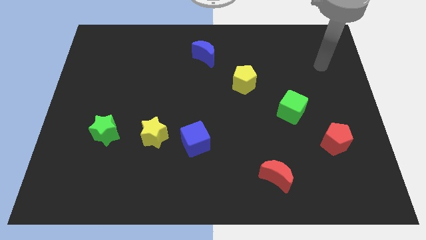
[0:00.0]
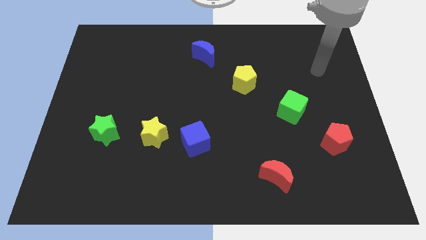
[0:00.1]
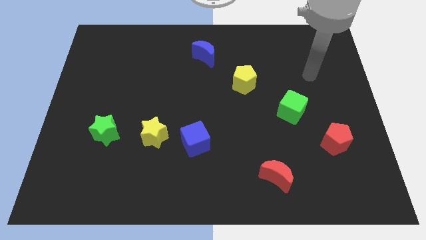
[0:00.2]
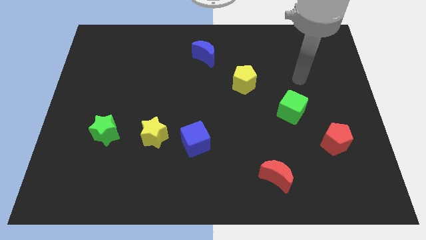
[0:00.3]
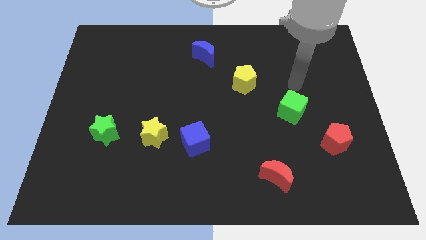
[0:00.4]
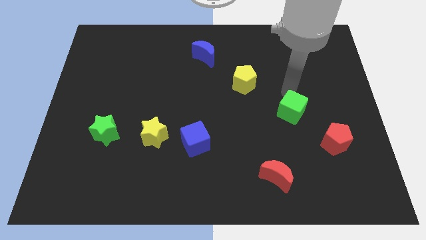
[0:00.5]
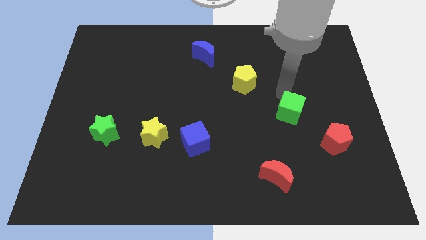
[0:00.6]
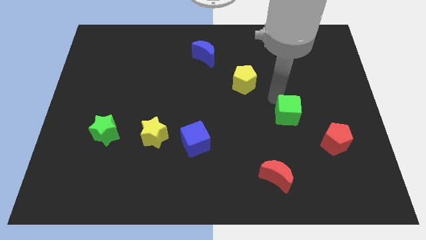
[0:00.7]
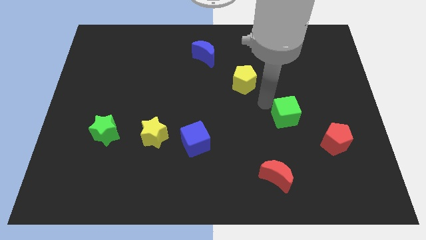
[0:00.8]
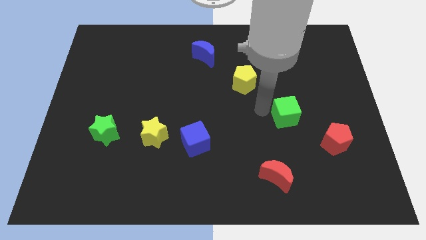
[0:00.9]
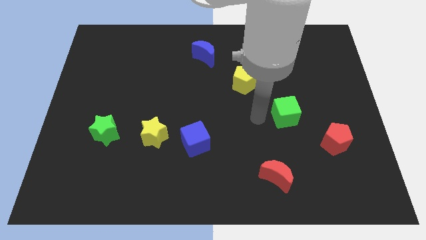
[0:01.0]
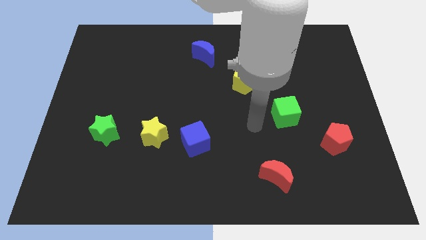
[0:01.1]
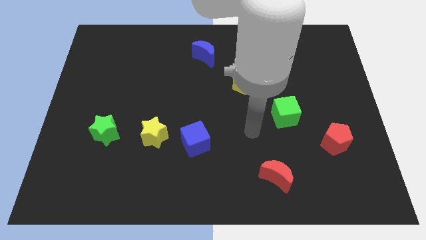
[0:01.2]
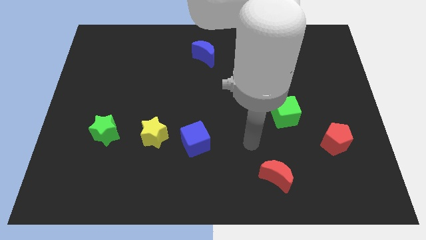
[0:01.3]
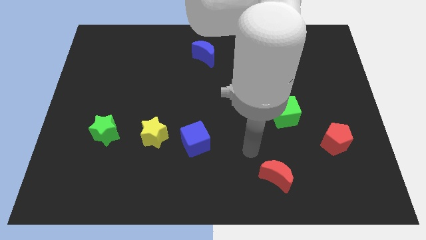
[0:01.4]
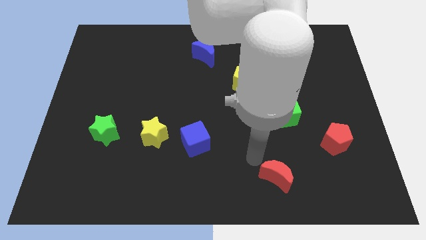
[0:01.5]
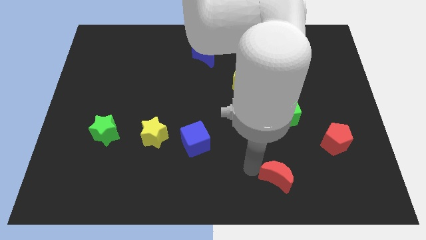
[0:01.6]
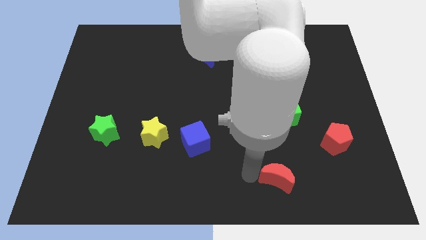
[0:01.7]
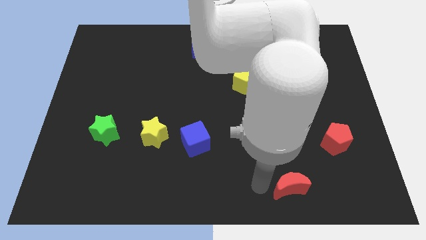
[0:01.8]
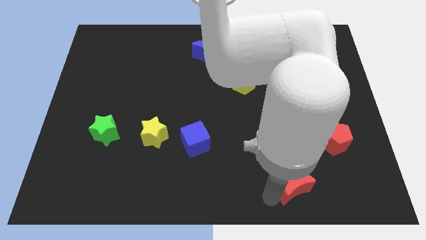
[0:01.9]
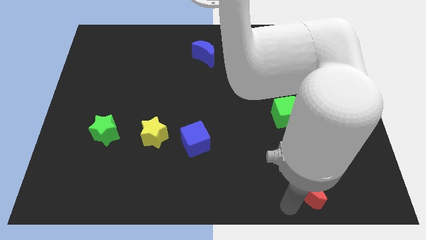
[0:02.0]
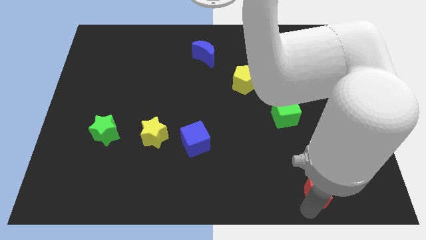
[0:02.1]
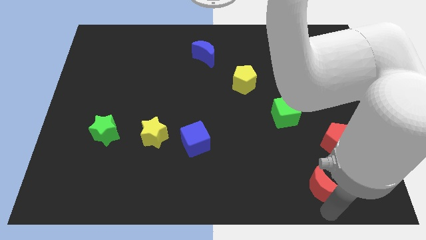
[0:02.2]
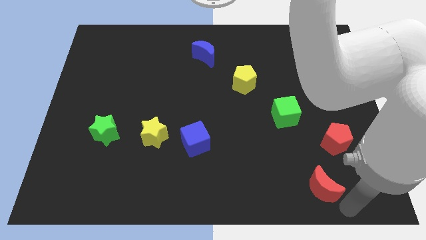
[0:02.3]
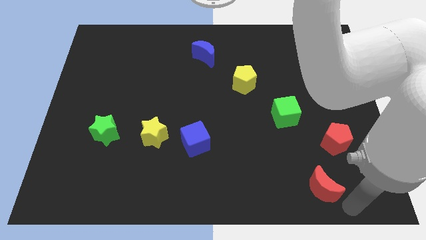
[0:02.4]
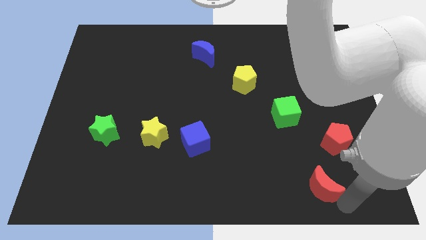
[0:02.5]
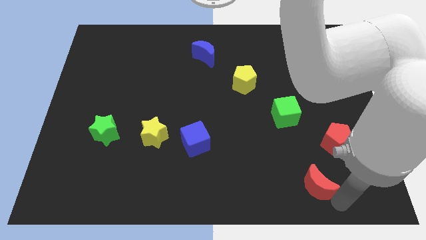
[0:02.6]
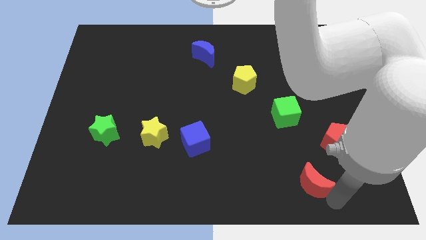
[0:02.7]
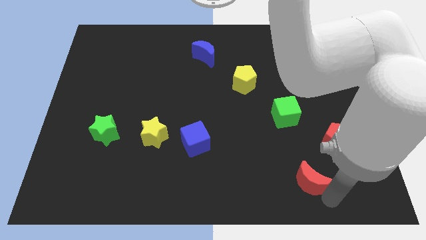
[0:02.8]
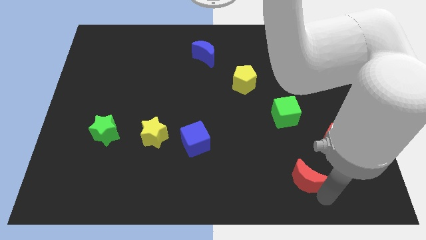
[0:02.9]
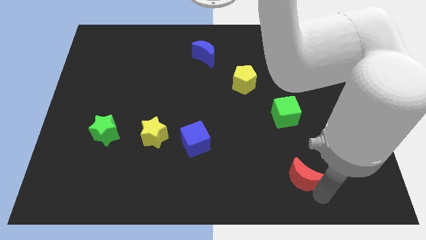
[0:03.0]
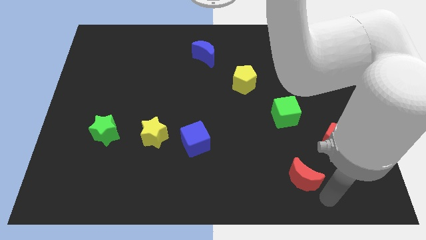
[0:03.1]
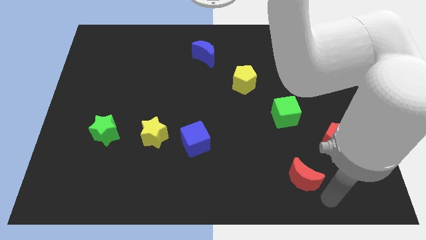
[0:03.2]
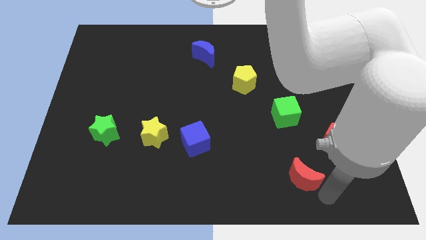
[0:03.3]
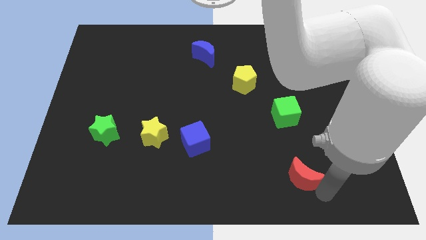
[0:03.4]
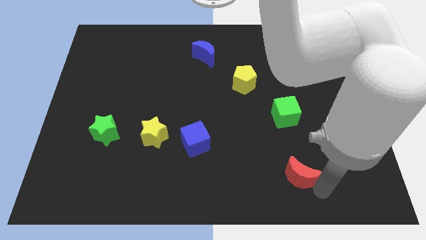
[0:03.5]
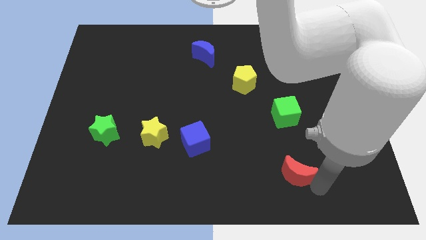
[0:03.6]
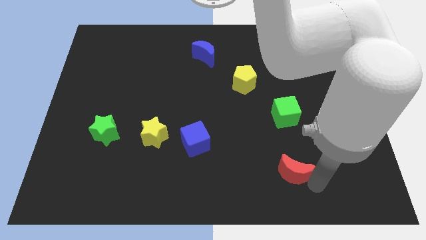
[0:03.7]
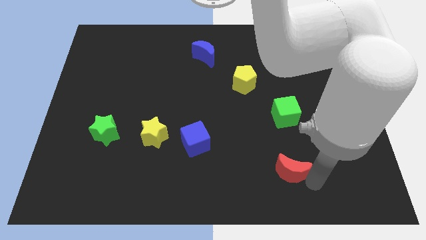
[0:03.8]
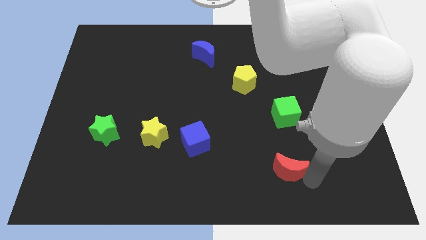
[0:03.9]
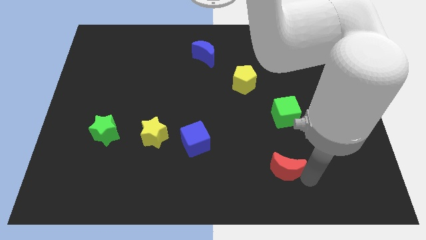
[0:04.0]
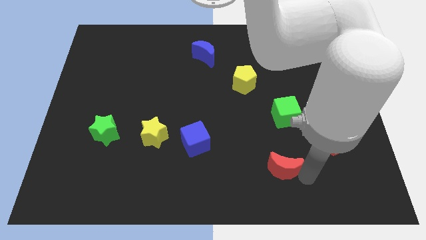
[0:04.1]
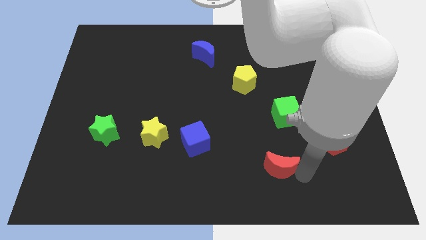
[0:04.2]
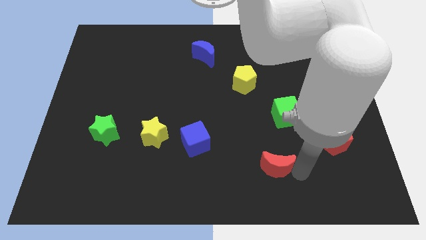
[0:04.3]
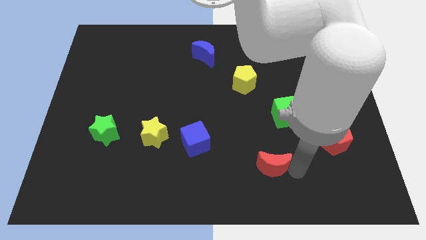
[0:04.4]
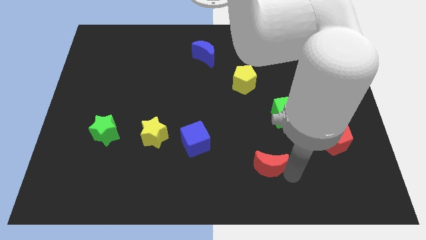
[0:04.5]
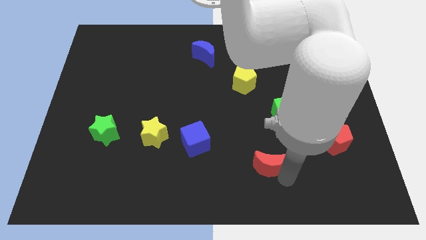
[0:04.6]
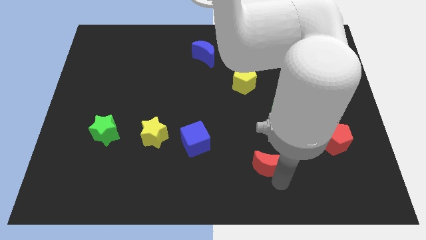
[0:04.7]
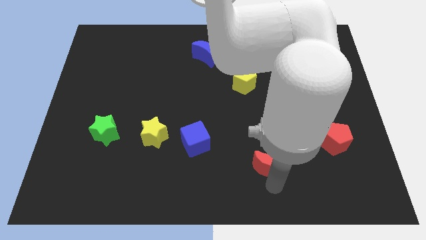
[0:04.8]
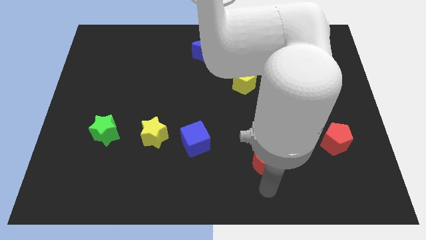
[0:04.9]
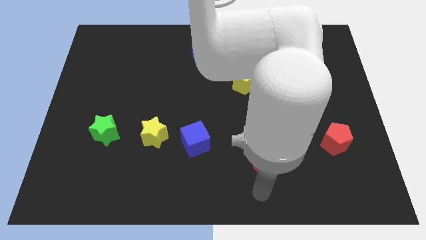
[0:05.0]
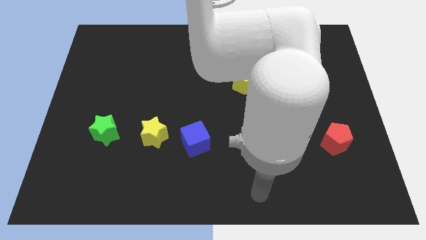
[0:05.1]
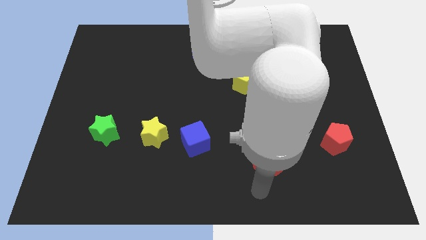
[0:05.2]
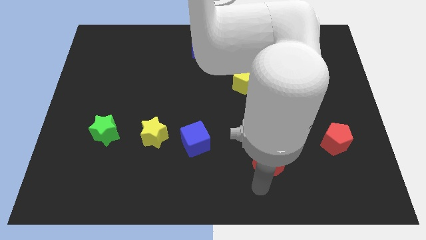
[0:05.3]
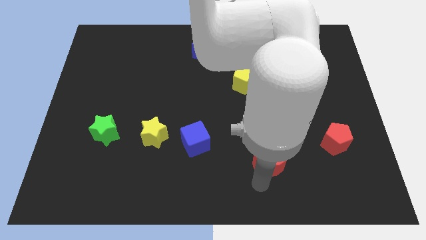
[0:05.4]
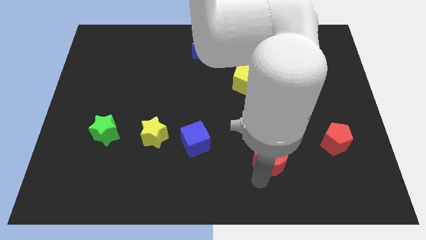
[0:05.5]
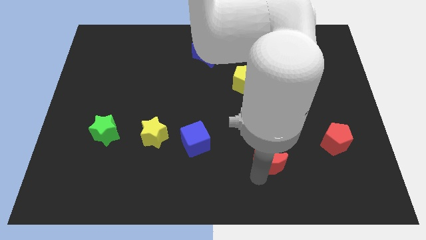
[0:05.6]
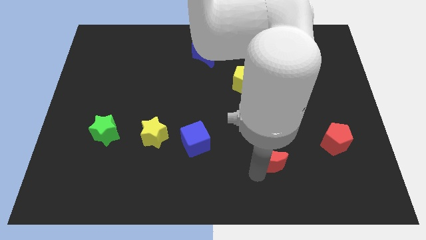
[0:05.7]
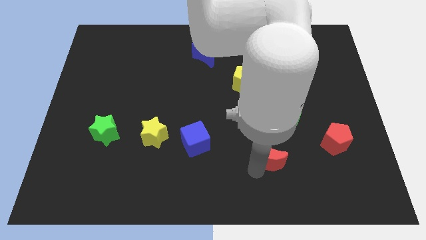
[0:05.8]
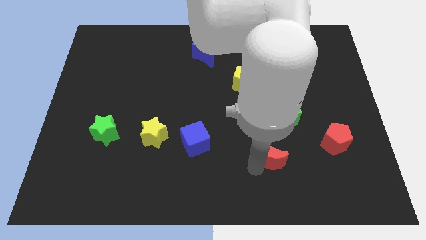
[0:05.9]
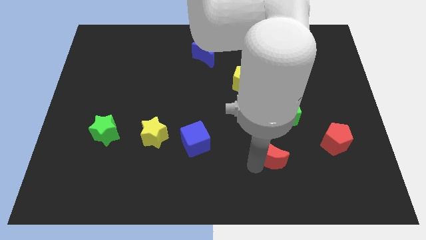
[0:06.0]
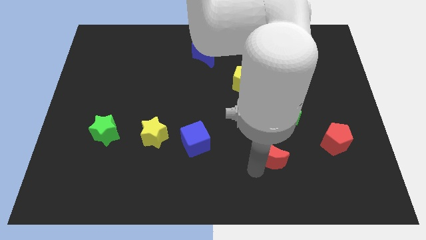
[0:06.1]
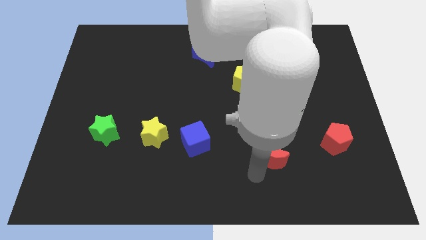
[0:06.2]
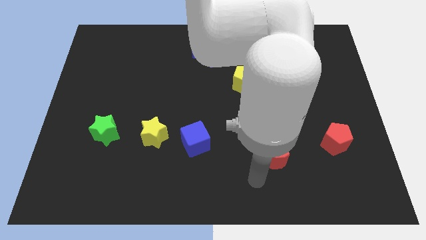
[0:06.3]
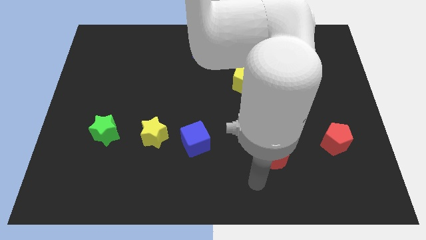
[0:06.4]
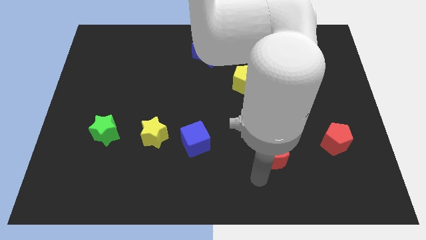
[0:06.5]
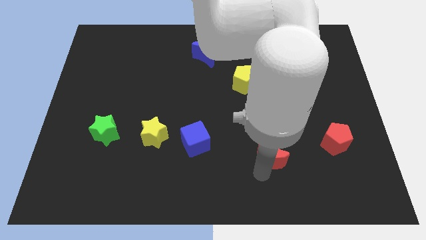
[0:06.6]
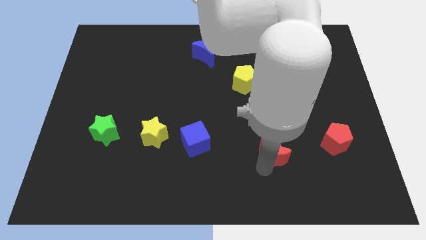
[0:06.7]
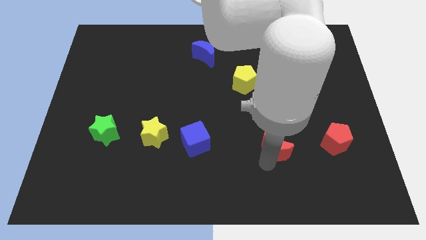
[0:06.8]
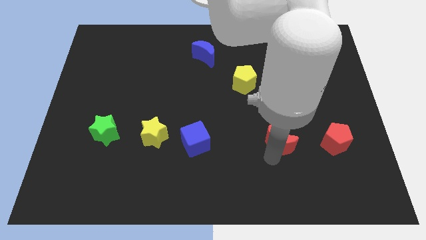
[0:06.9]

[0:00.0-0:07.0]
slide the red moon upwards a bit

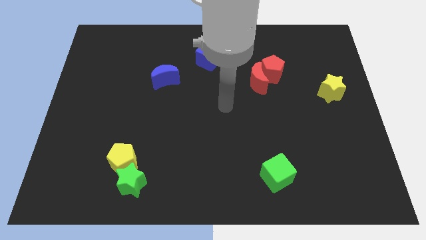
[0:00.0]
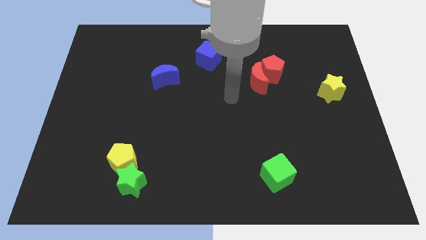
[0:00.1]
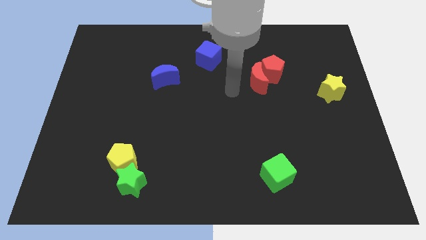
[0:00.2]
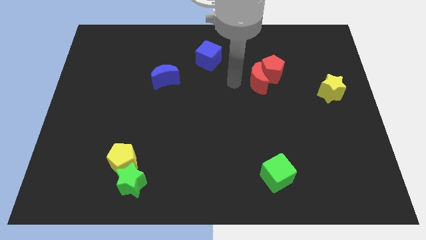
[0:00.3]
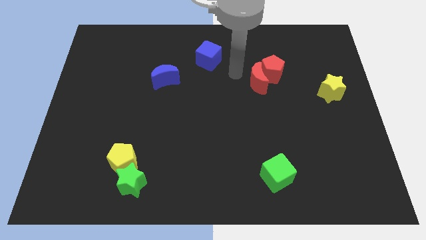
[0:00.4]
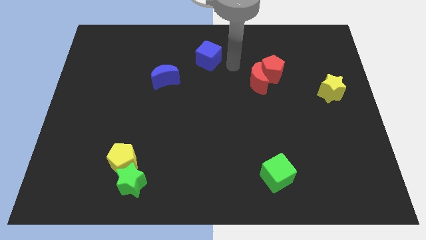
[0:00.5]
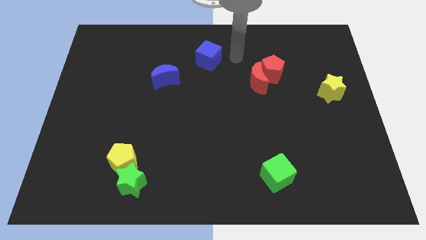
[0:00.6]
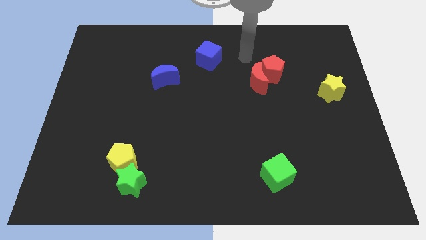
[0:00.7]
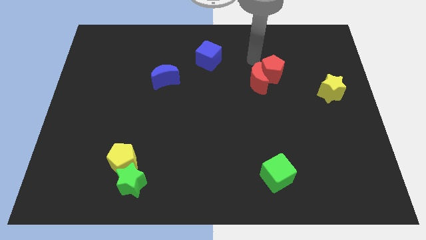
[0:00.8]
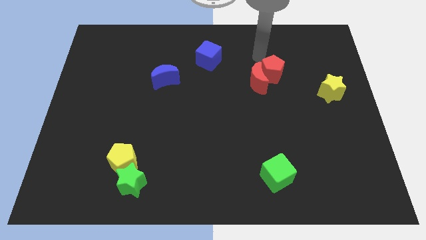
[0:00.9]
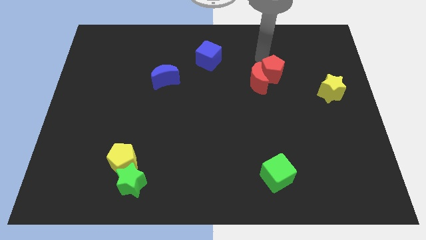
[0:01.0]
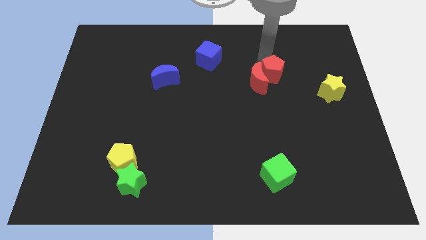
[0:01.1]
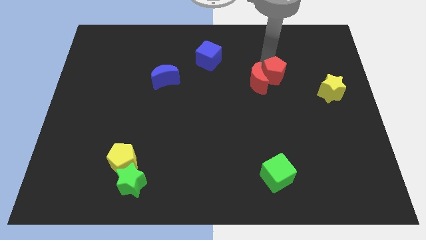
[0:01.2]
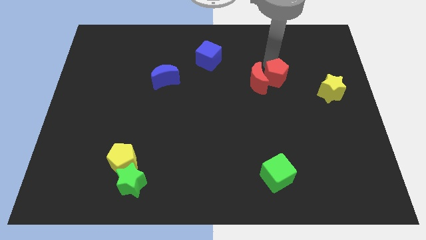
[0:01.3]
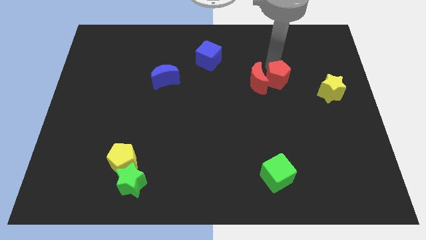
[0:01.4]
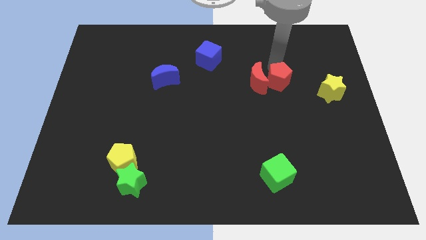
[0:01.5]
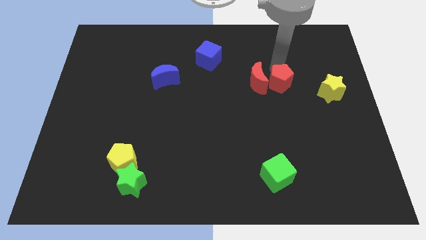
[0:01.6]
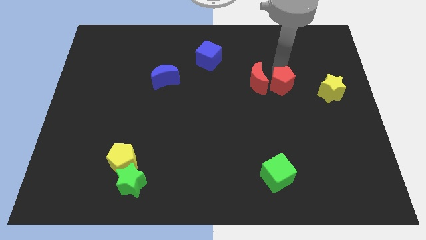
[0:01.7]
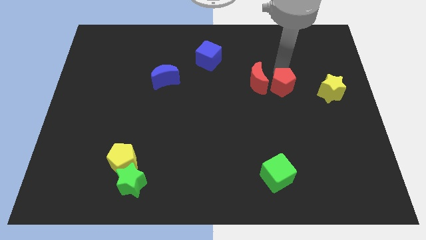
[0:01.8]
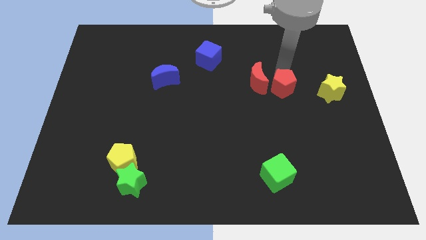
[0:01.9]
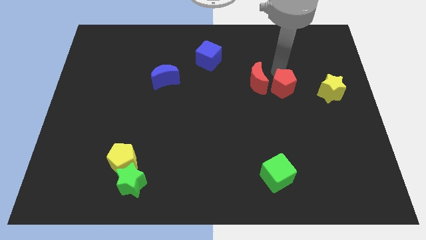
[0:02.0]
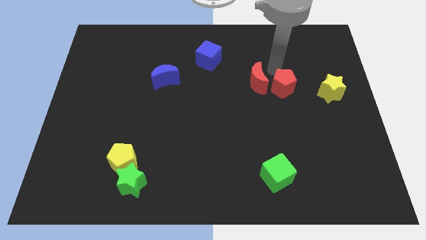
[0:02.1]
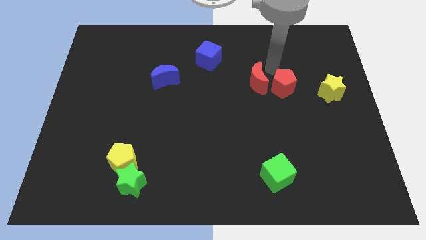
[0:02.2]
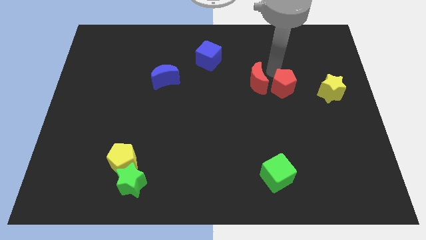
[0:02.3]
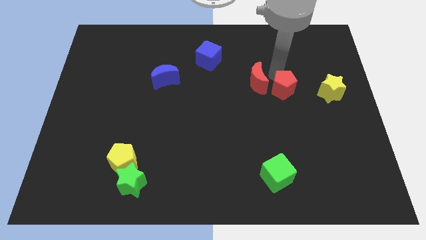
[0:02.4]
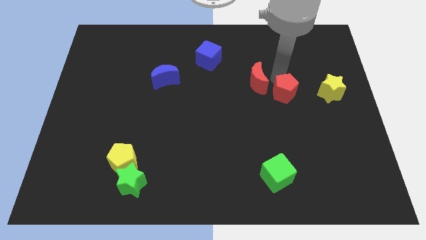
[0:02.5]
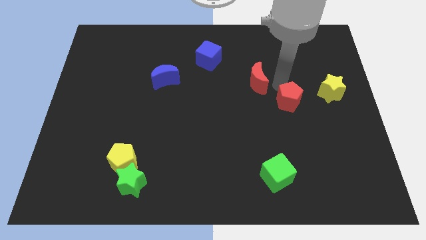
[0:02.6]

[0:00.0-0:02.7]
slide the red pentagon somewhat downwards and then right
